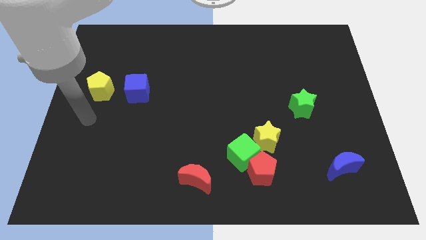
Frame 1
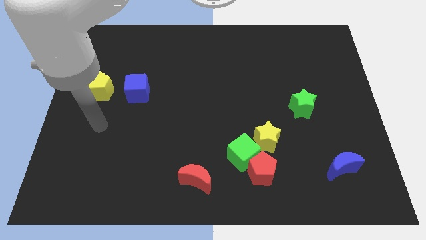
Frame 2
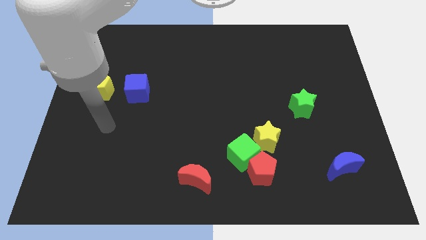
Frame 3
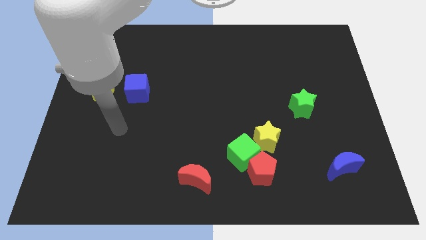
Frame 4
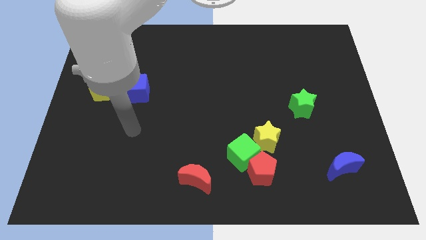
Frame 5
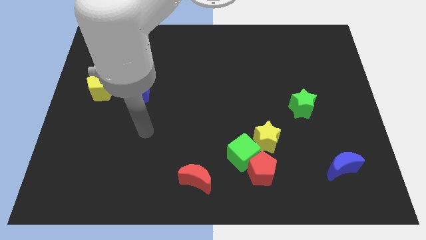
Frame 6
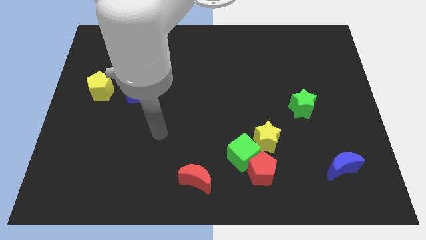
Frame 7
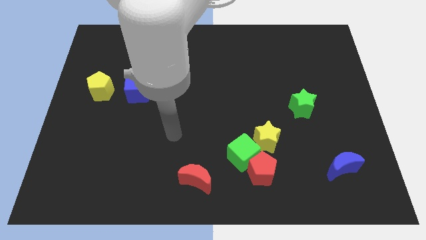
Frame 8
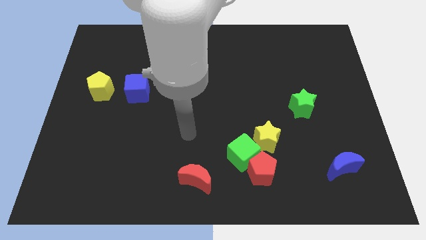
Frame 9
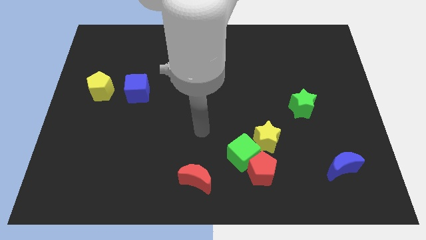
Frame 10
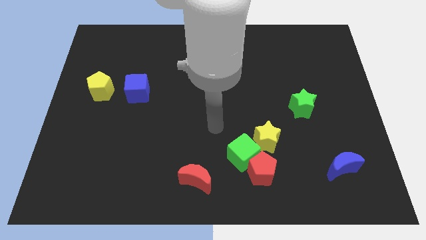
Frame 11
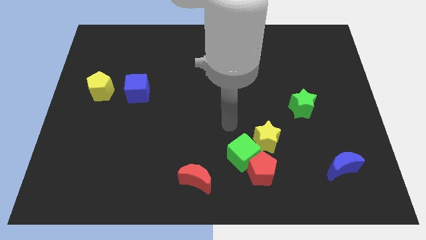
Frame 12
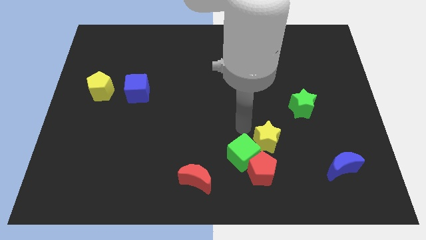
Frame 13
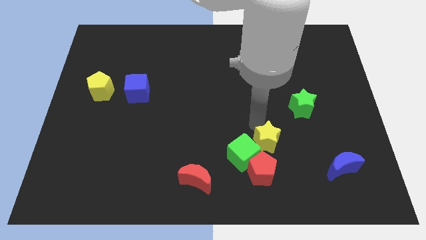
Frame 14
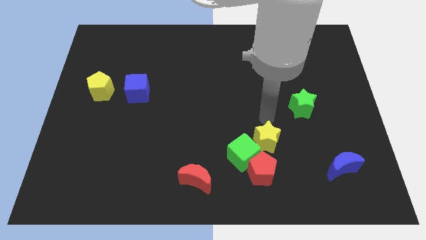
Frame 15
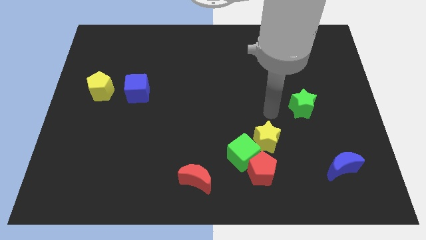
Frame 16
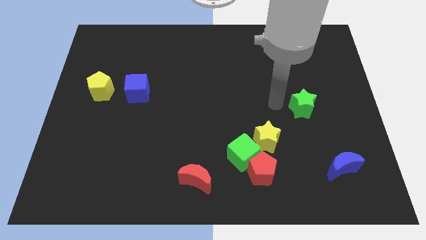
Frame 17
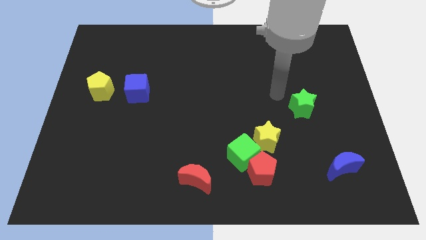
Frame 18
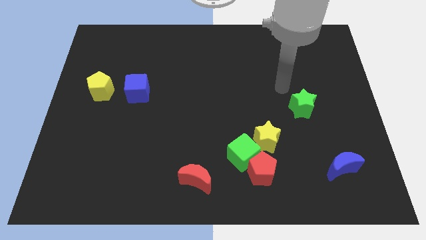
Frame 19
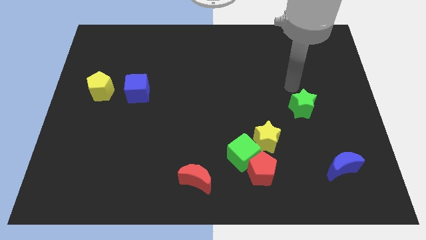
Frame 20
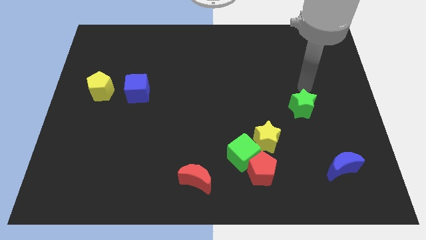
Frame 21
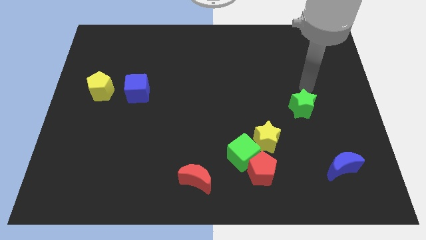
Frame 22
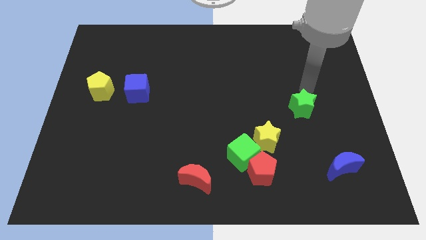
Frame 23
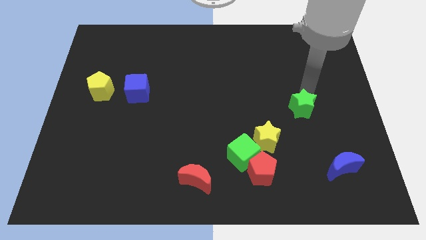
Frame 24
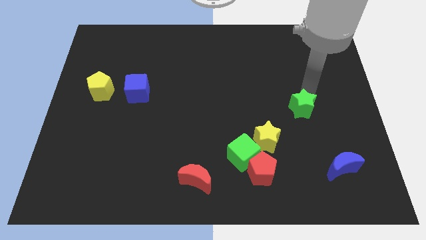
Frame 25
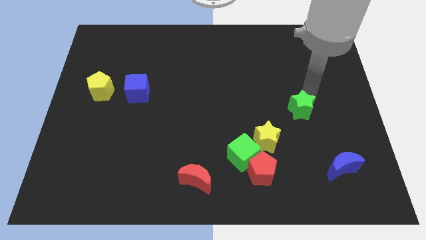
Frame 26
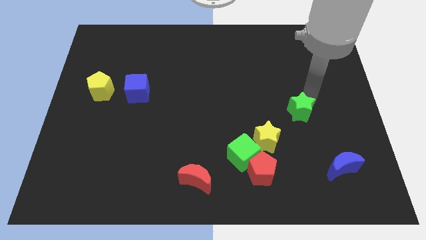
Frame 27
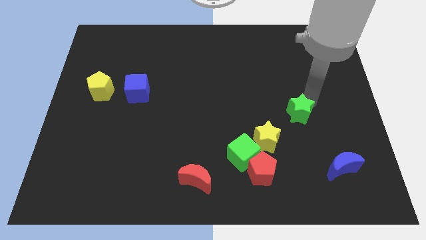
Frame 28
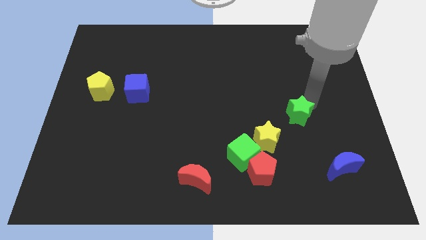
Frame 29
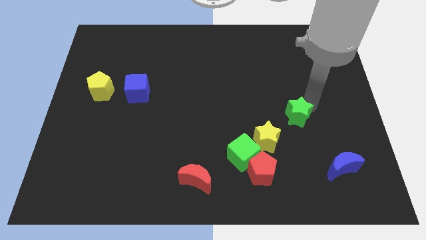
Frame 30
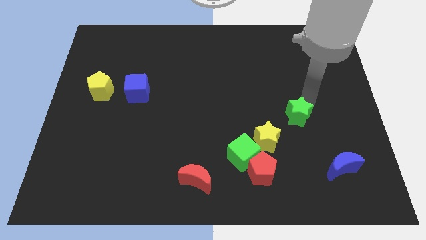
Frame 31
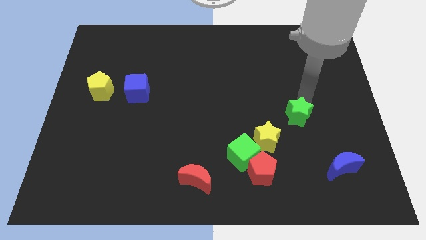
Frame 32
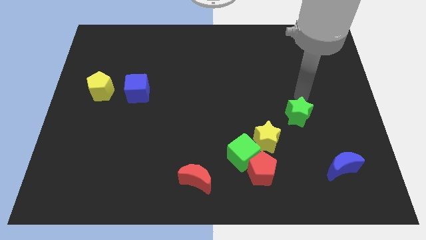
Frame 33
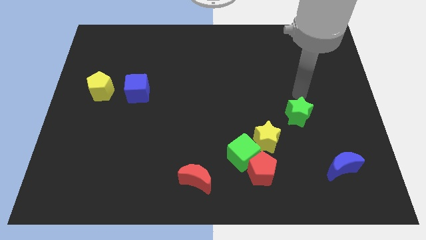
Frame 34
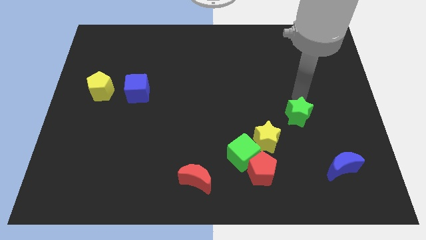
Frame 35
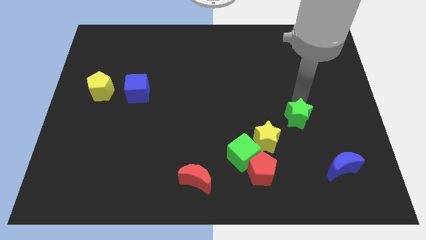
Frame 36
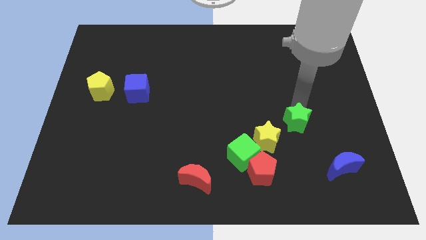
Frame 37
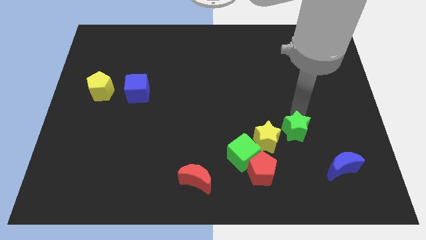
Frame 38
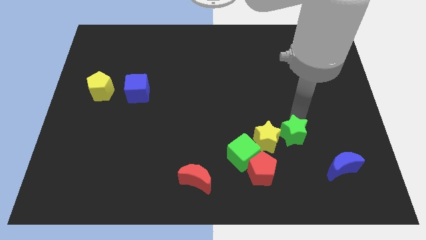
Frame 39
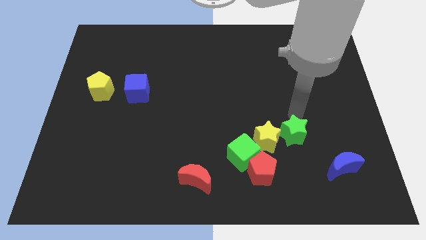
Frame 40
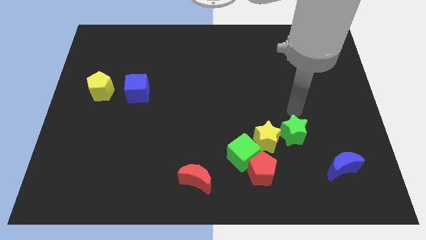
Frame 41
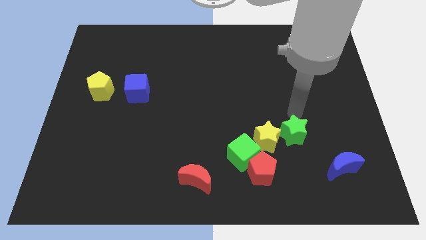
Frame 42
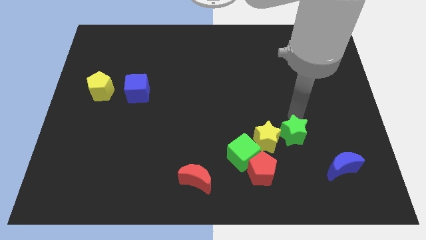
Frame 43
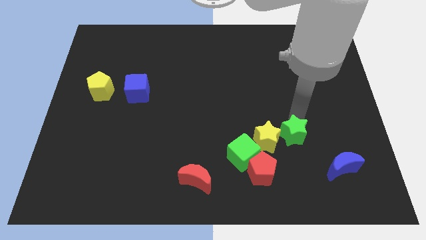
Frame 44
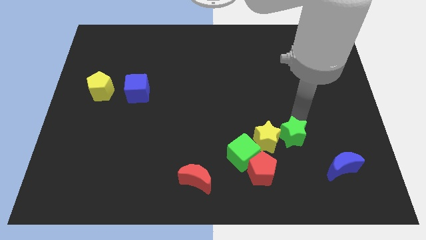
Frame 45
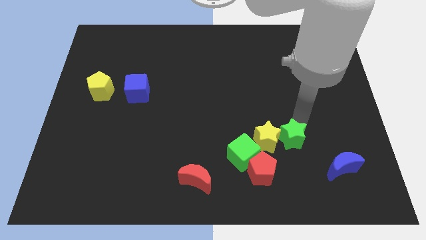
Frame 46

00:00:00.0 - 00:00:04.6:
move the green star right of the green cube

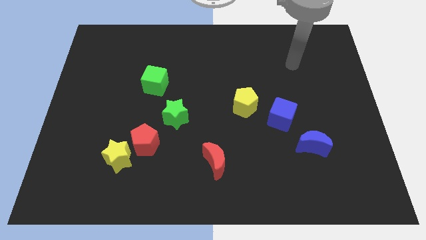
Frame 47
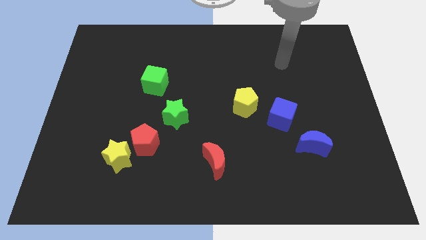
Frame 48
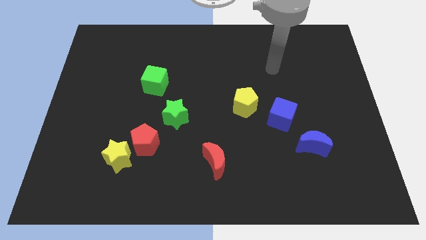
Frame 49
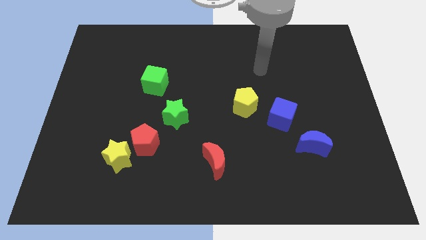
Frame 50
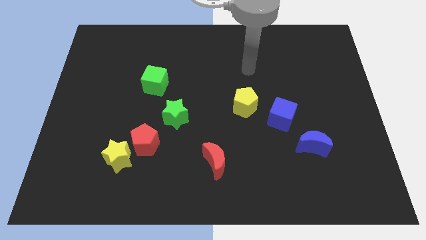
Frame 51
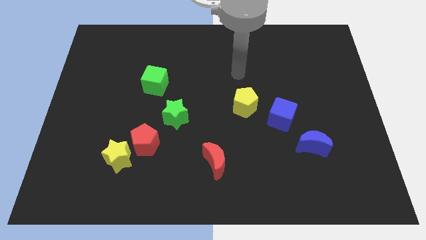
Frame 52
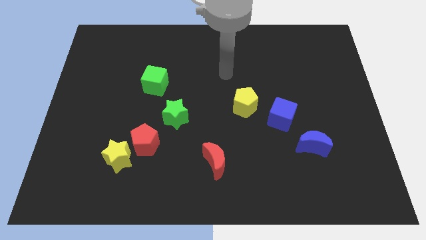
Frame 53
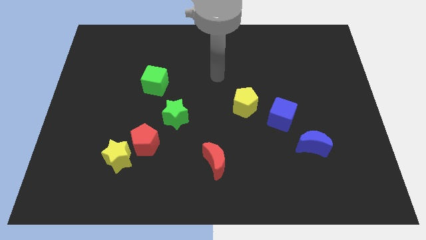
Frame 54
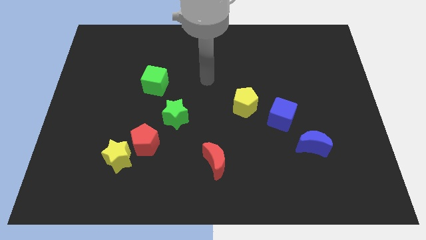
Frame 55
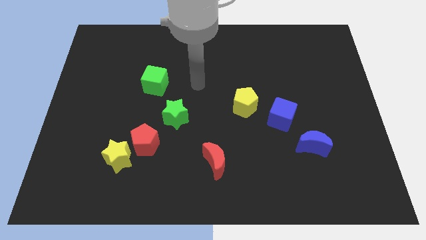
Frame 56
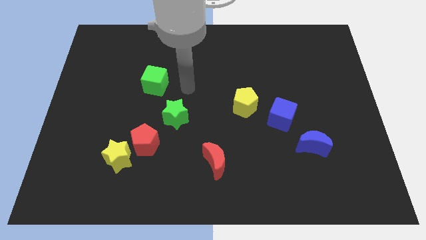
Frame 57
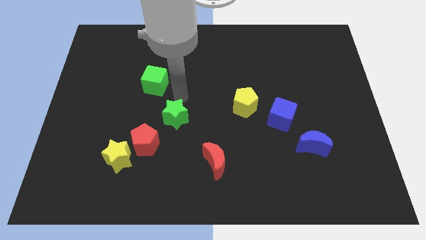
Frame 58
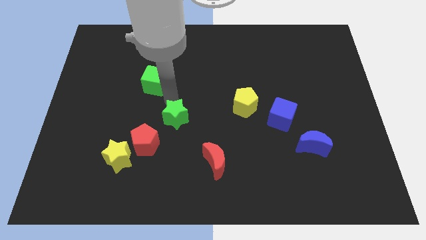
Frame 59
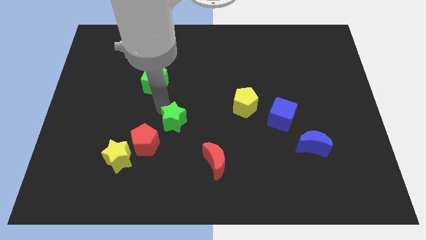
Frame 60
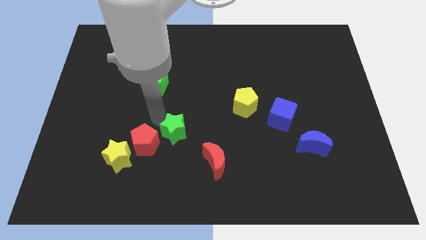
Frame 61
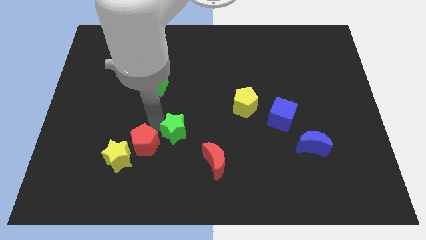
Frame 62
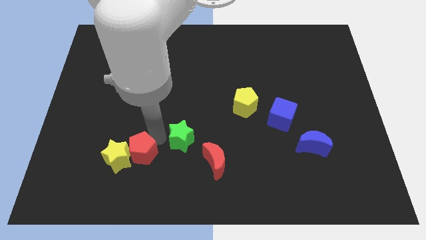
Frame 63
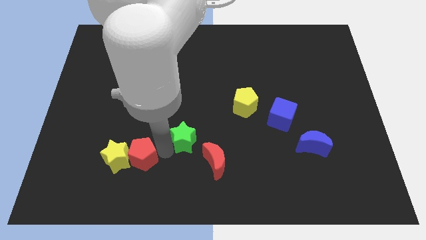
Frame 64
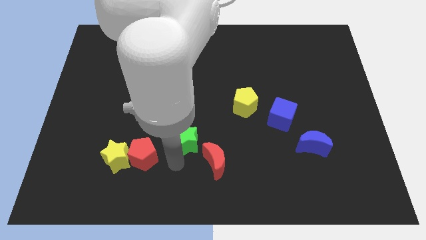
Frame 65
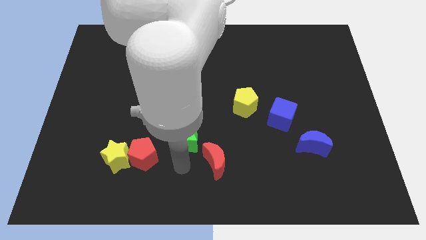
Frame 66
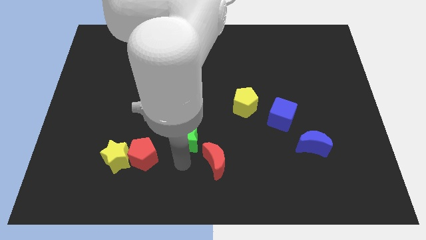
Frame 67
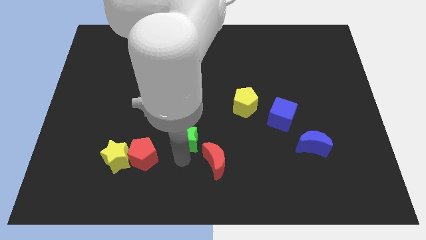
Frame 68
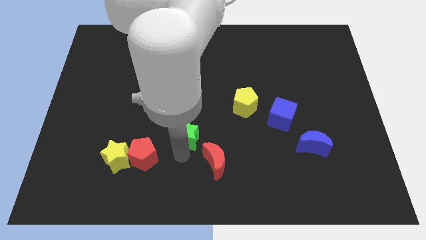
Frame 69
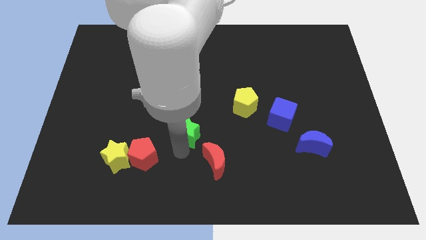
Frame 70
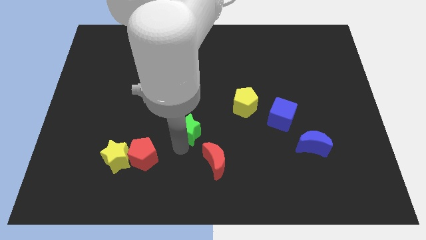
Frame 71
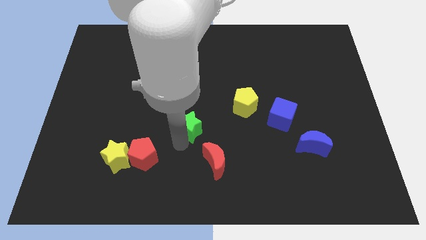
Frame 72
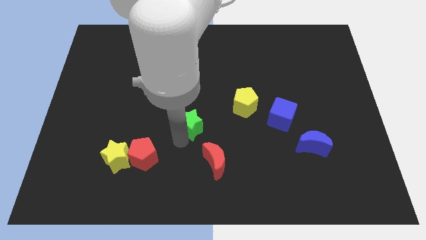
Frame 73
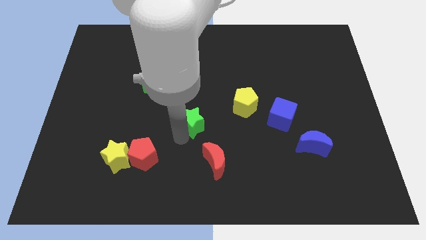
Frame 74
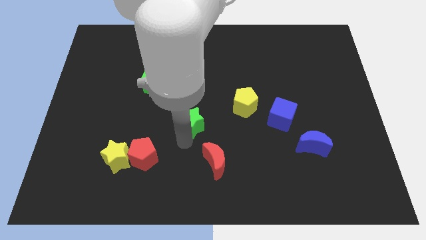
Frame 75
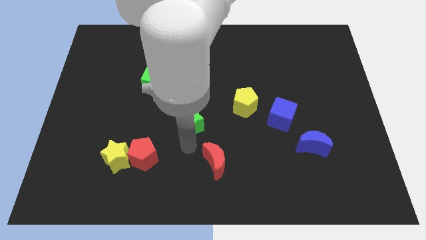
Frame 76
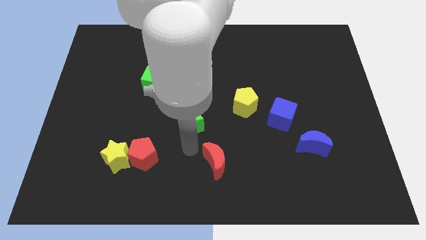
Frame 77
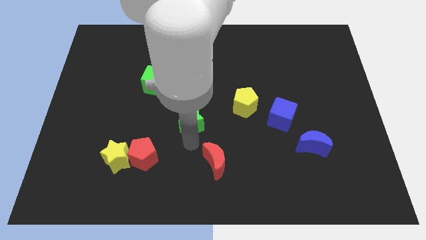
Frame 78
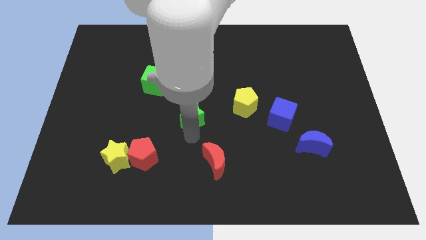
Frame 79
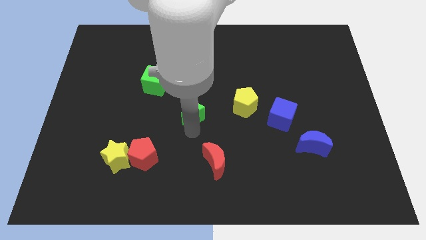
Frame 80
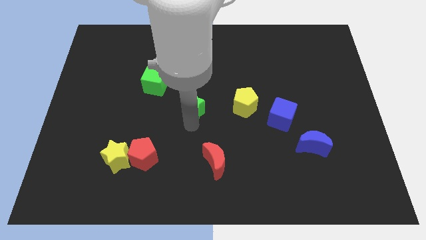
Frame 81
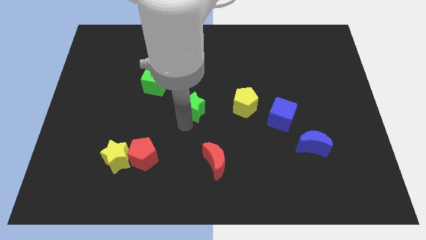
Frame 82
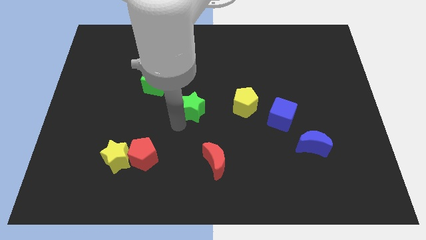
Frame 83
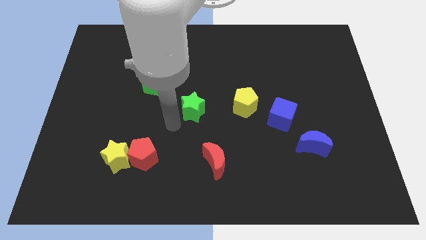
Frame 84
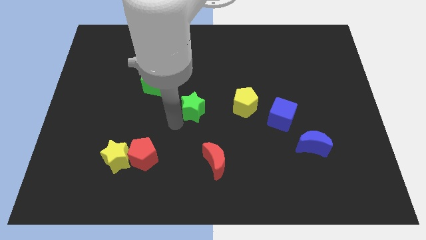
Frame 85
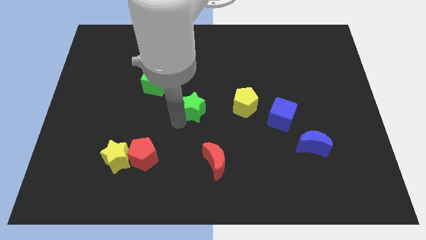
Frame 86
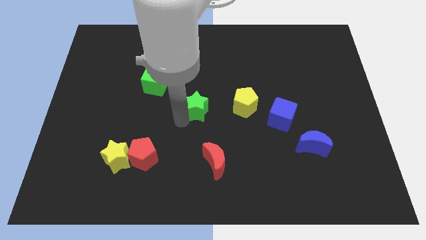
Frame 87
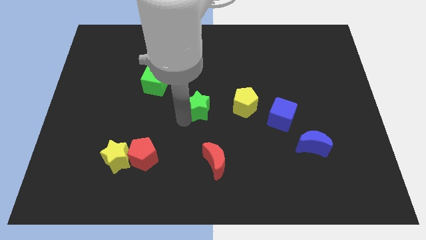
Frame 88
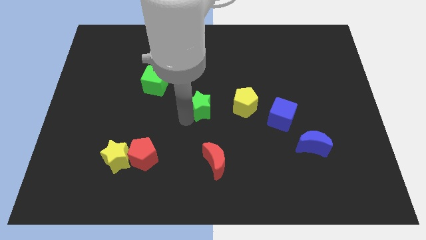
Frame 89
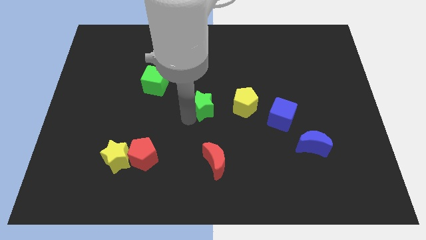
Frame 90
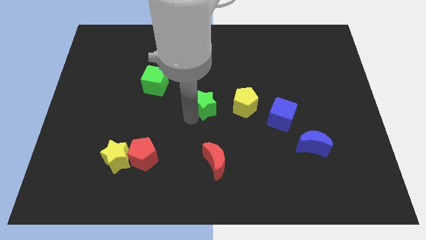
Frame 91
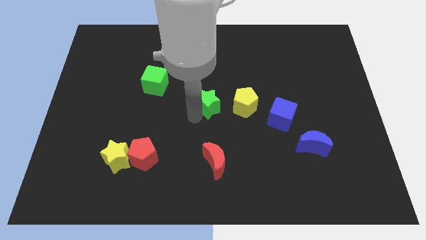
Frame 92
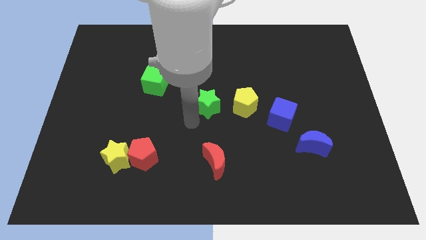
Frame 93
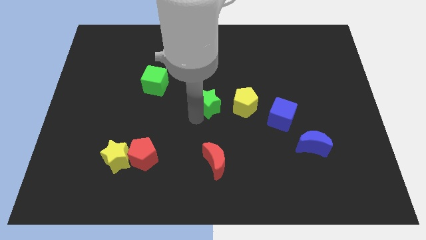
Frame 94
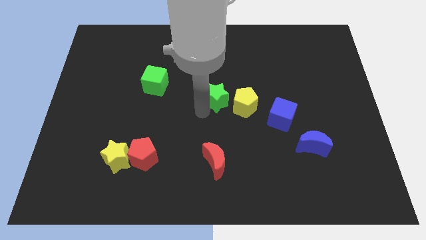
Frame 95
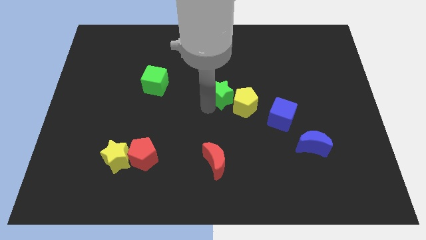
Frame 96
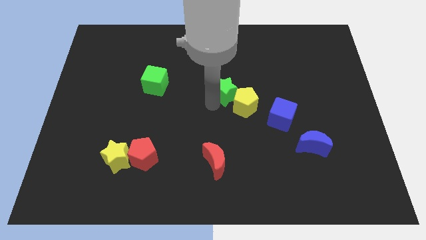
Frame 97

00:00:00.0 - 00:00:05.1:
slide the green star above the yellow pentagon
